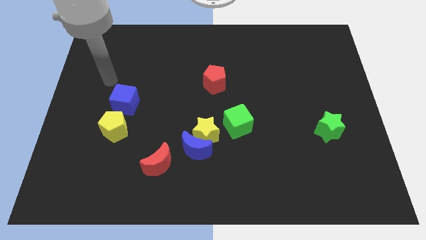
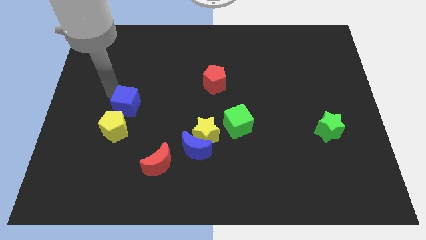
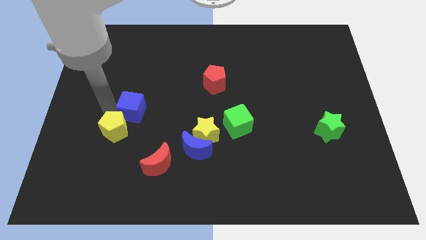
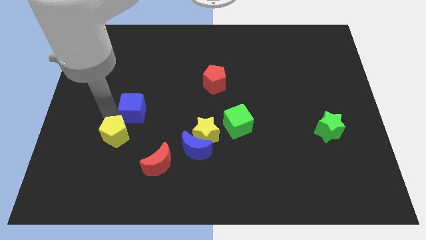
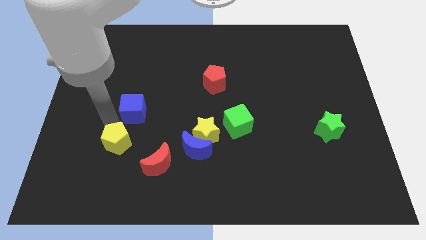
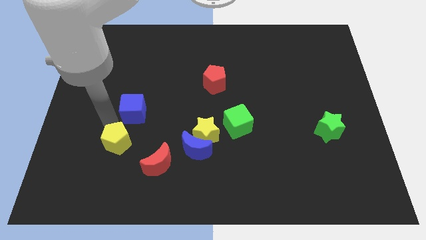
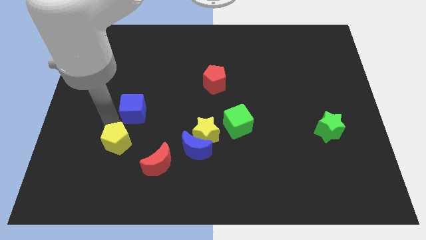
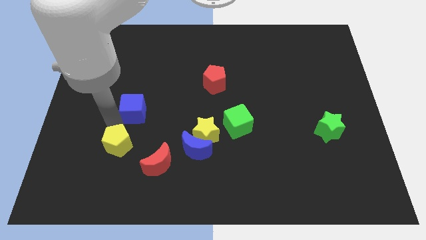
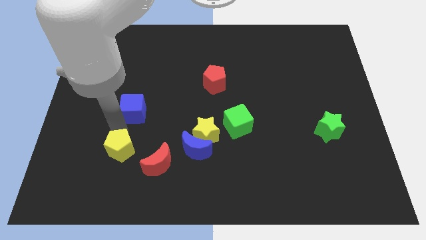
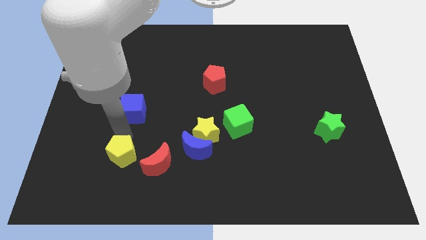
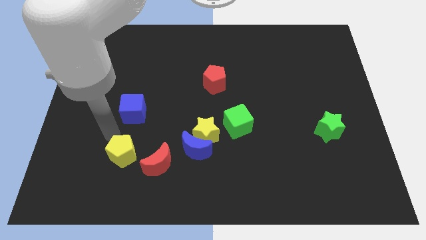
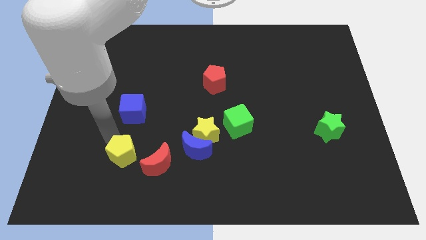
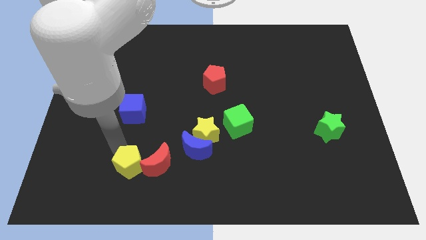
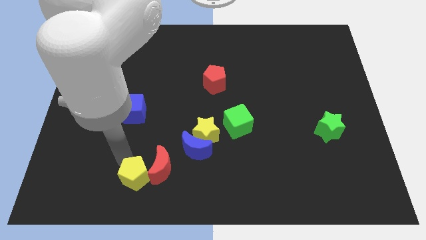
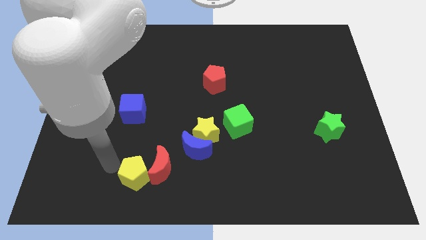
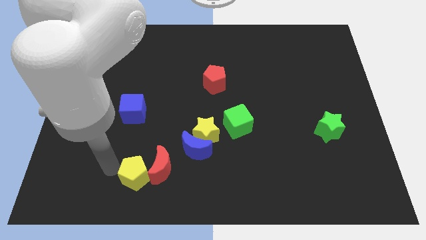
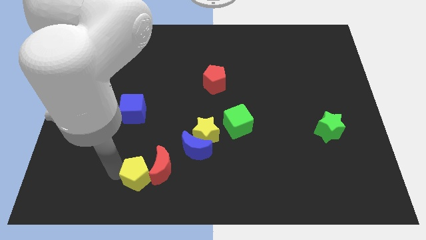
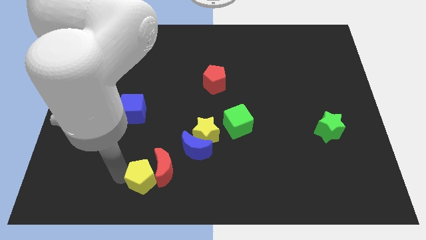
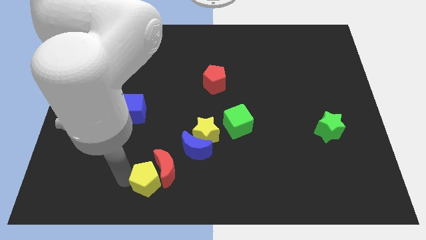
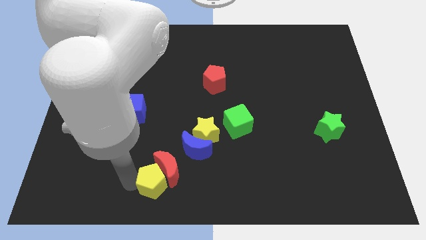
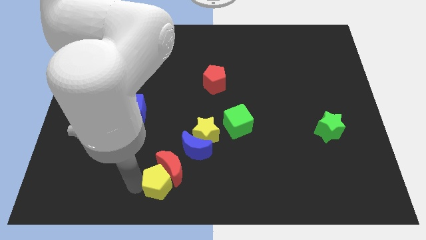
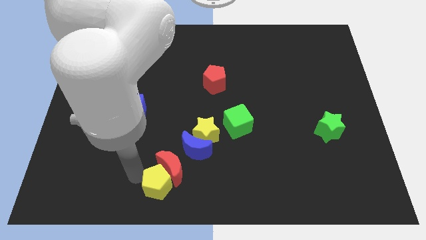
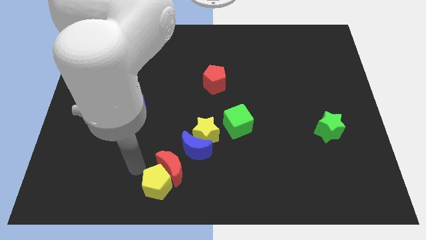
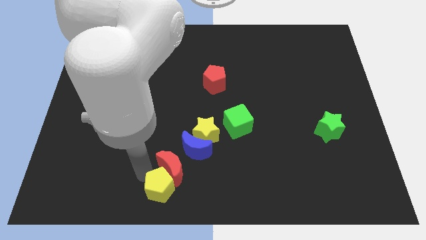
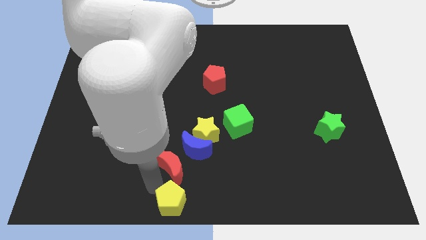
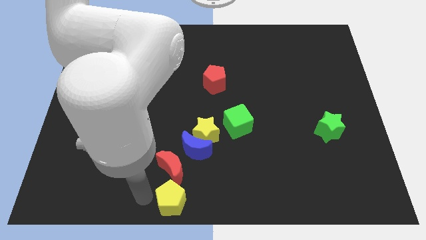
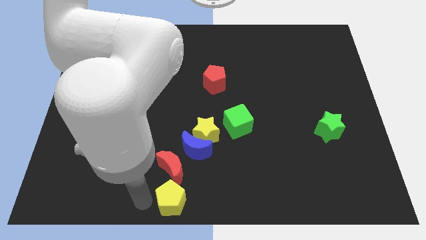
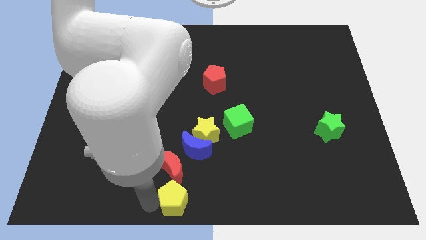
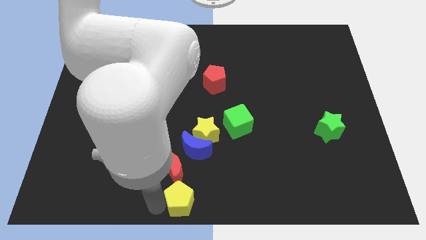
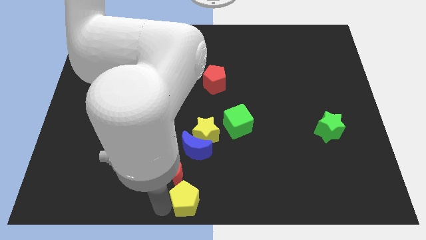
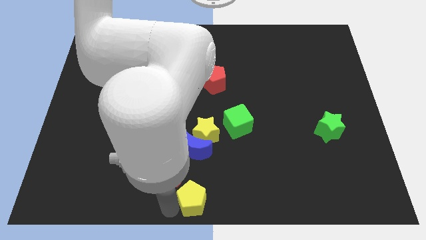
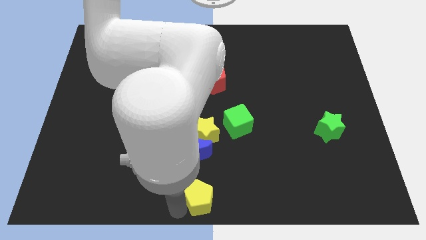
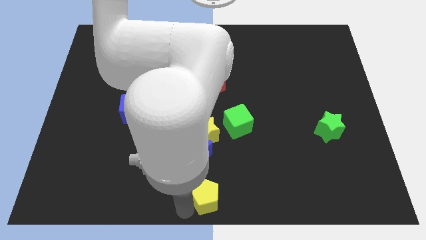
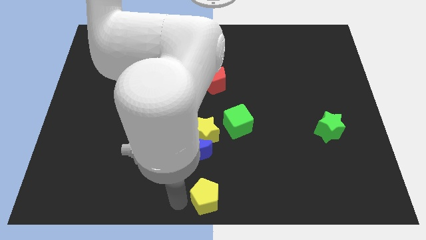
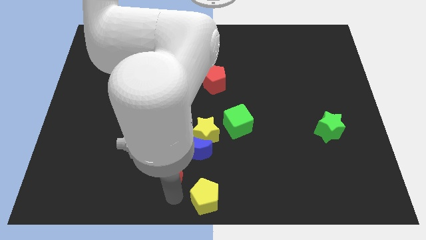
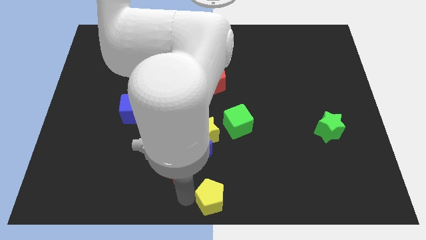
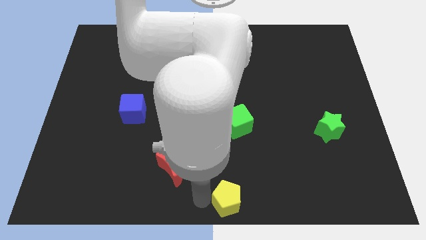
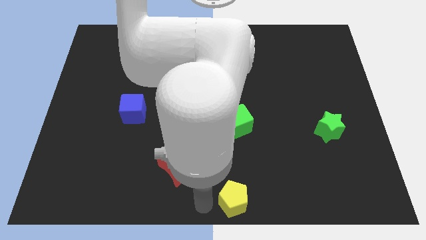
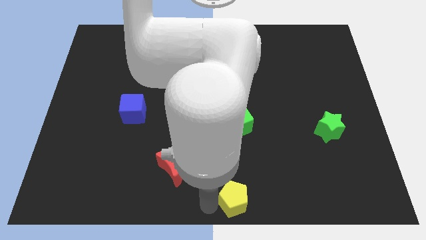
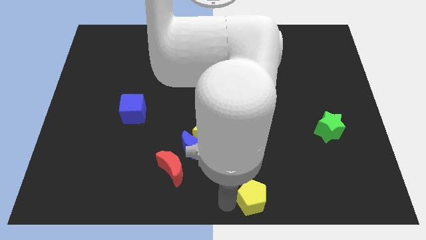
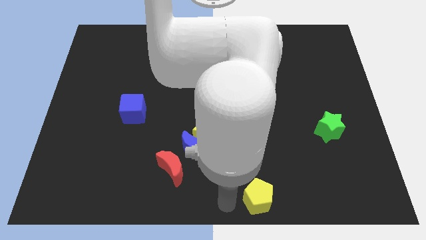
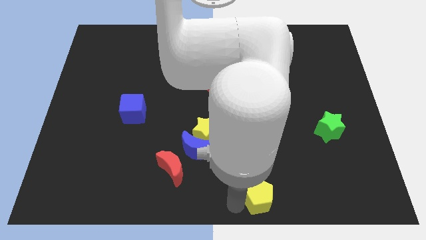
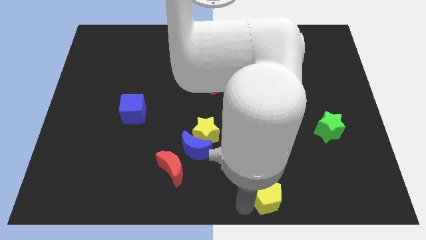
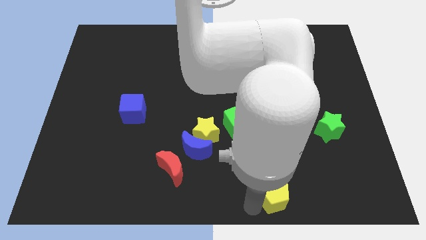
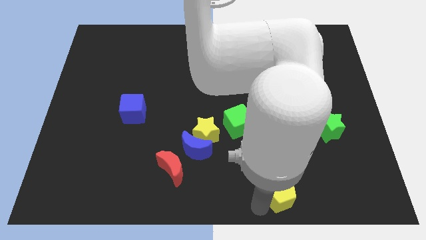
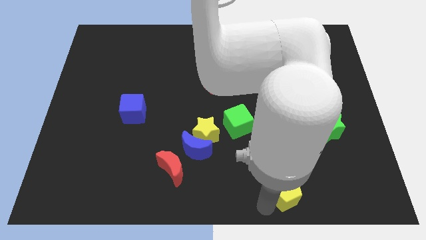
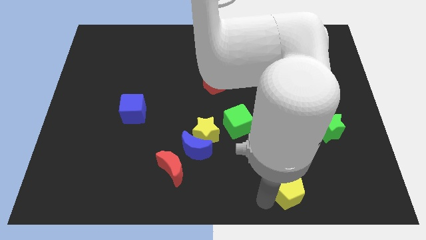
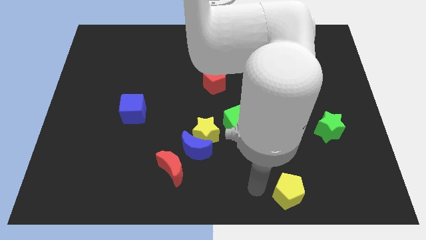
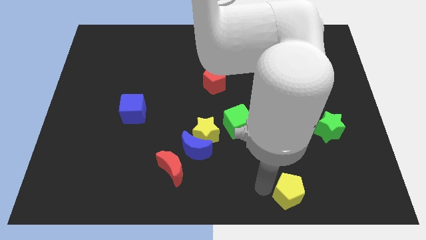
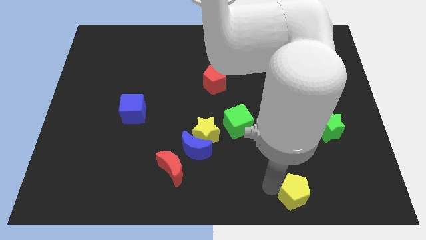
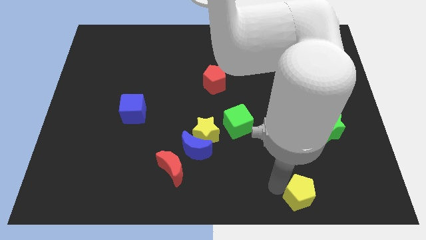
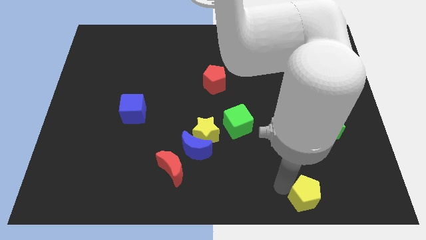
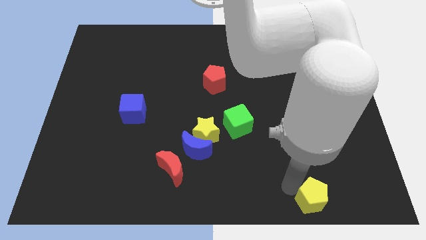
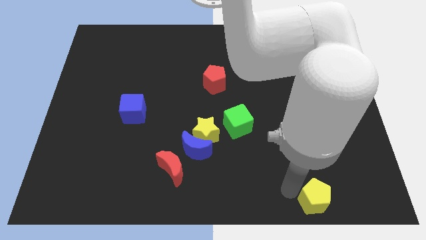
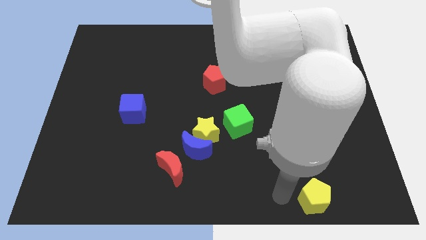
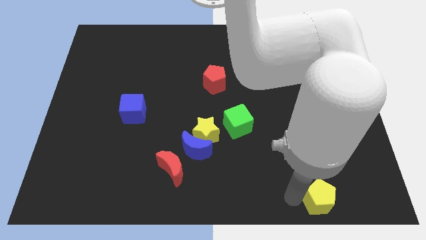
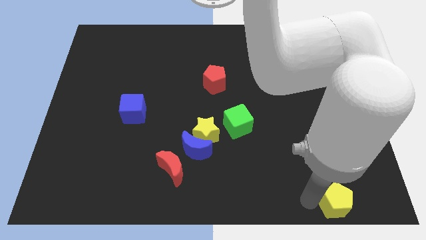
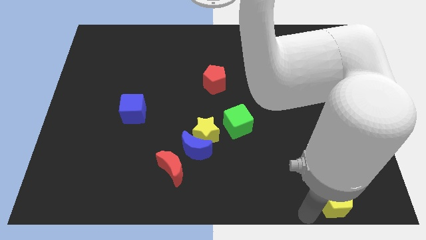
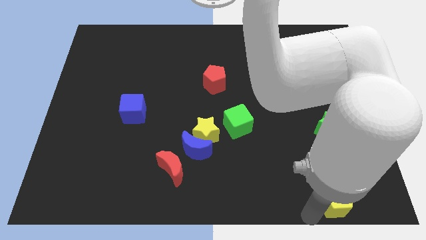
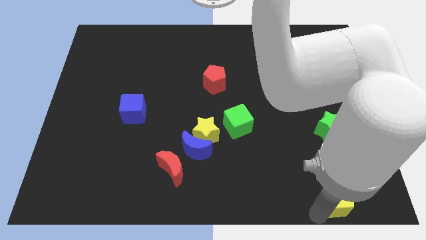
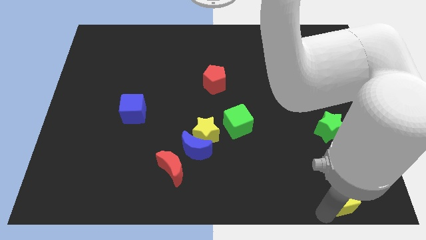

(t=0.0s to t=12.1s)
push the yellow pentagon to the bottom right of the board
